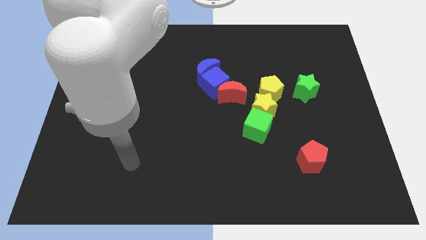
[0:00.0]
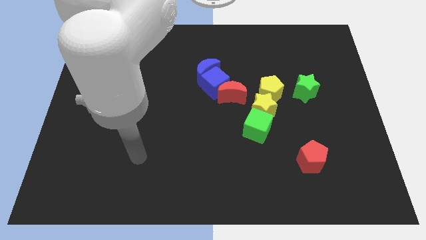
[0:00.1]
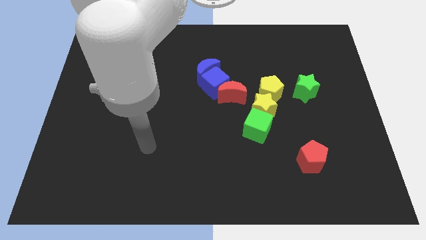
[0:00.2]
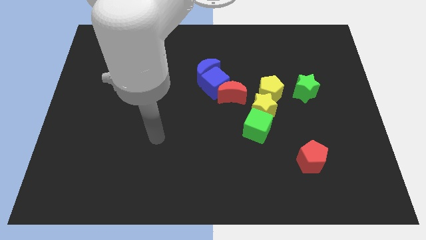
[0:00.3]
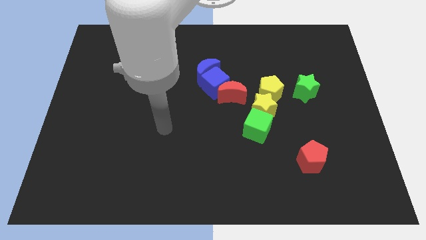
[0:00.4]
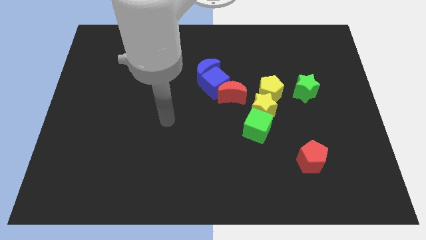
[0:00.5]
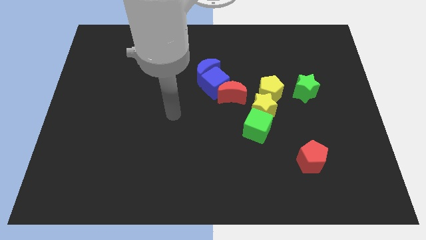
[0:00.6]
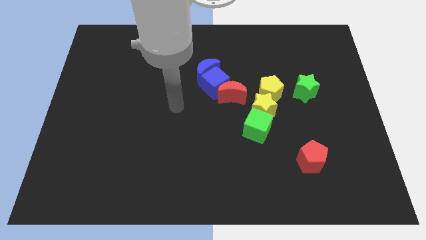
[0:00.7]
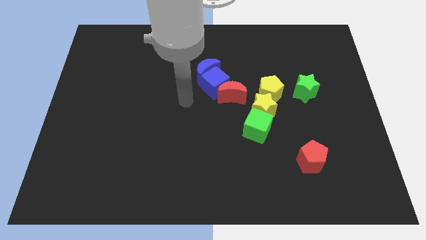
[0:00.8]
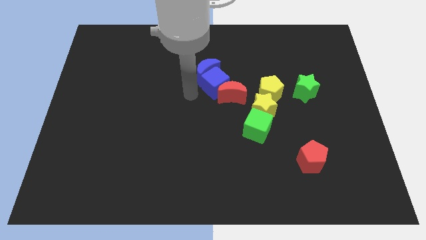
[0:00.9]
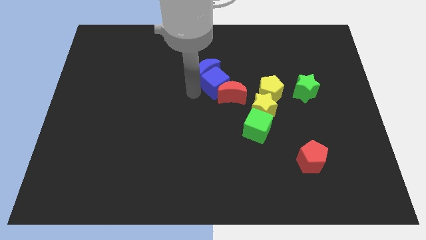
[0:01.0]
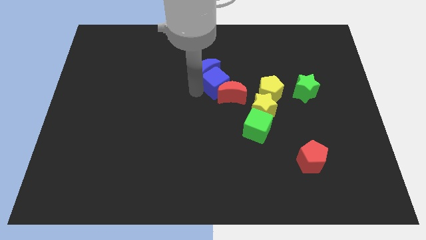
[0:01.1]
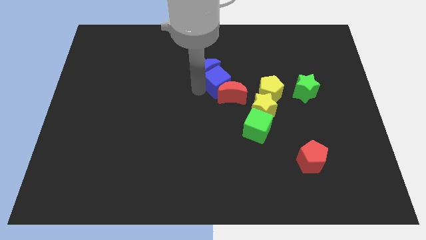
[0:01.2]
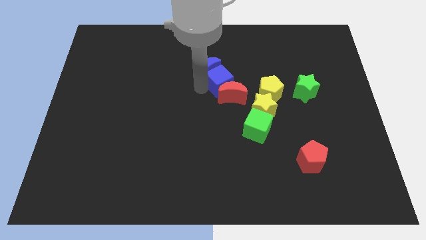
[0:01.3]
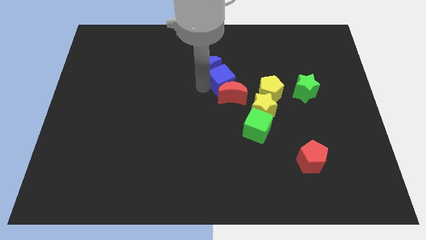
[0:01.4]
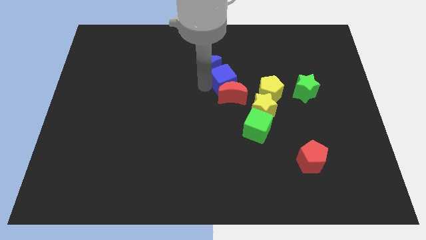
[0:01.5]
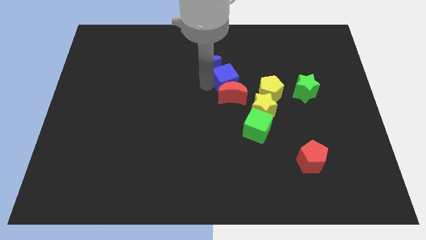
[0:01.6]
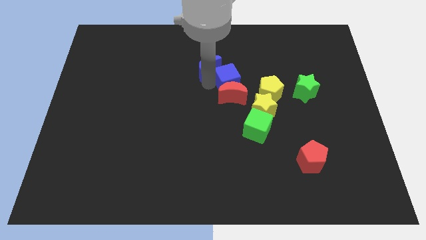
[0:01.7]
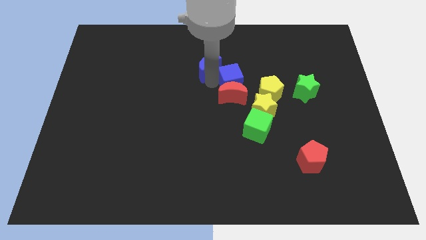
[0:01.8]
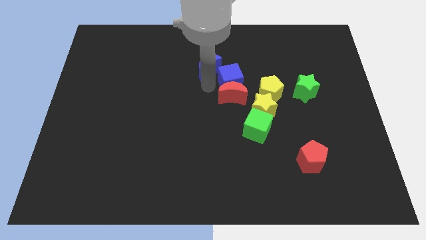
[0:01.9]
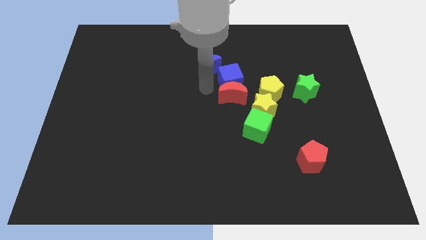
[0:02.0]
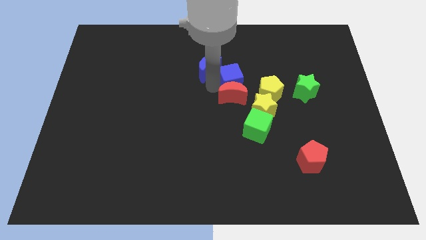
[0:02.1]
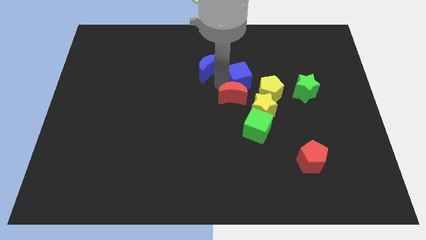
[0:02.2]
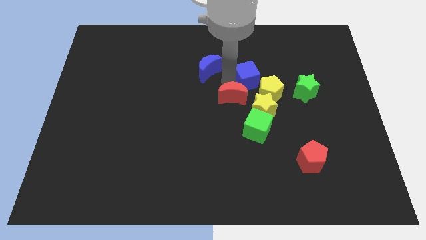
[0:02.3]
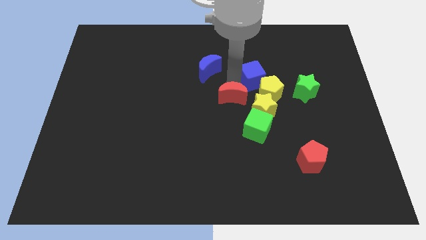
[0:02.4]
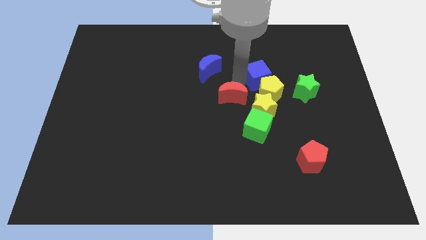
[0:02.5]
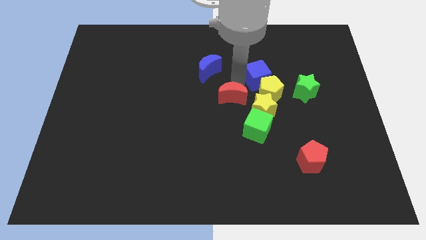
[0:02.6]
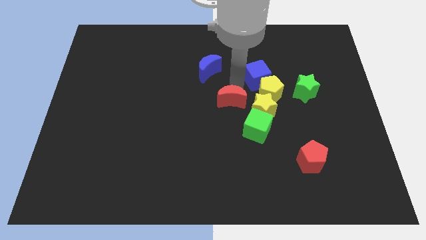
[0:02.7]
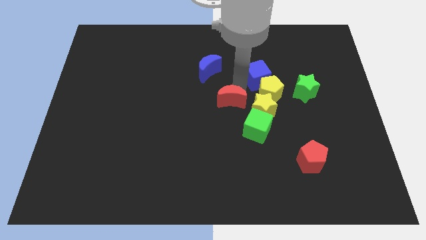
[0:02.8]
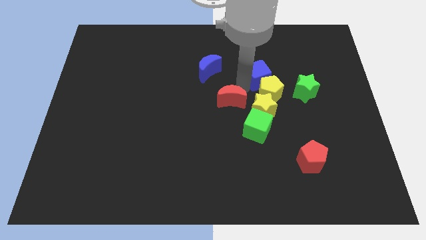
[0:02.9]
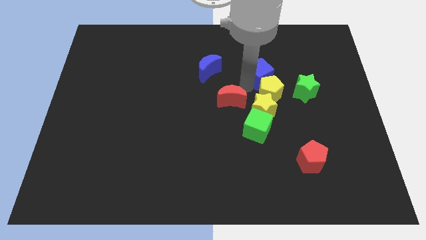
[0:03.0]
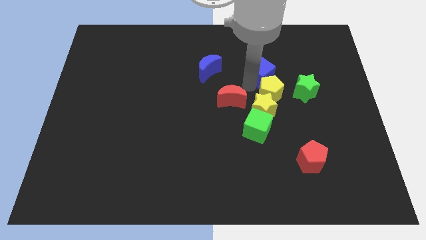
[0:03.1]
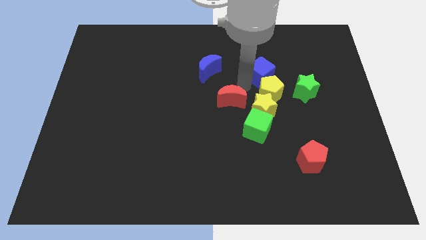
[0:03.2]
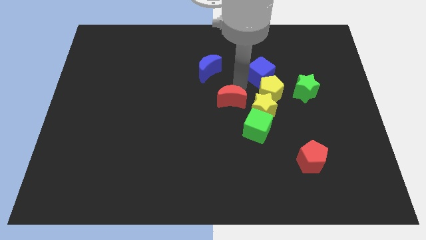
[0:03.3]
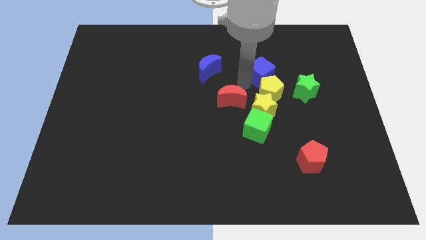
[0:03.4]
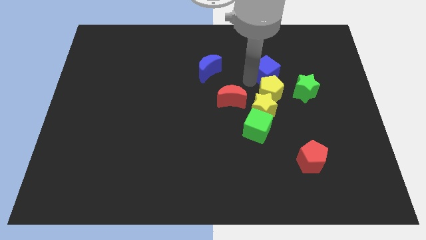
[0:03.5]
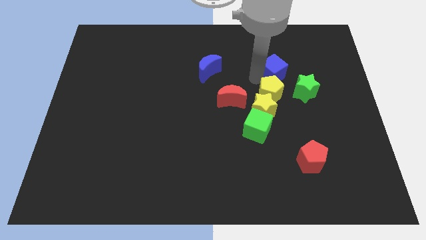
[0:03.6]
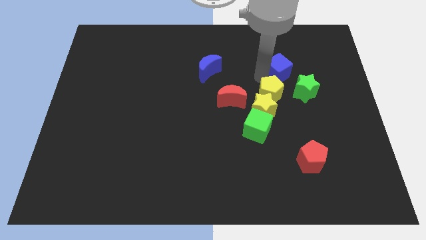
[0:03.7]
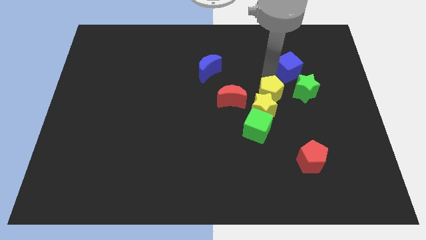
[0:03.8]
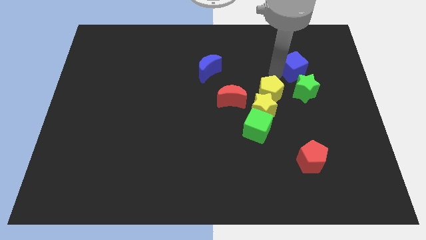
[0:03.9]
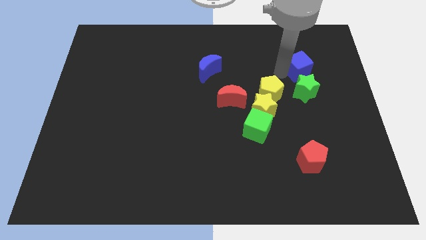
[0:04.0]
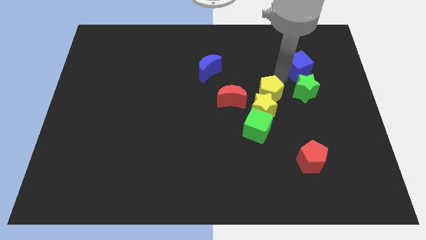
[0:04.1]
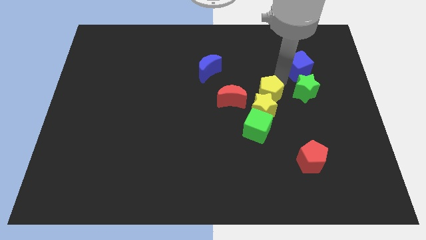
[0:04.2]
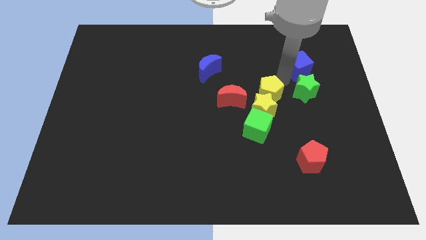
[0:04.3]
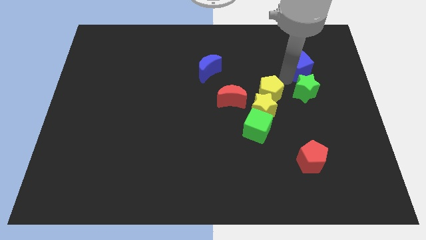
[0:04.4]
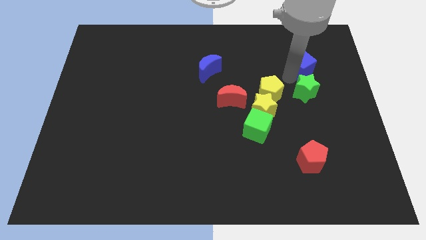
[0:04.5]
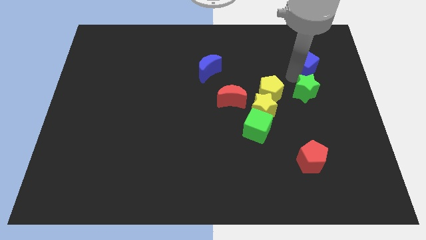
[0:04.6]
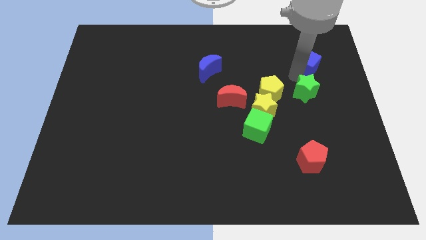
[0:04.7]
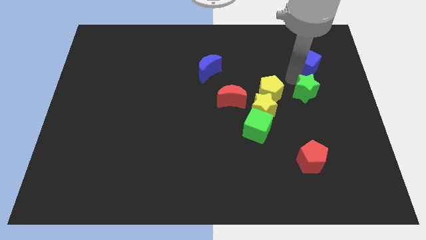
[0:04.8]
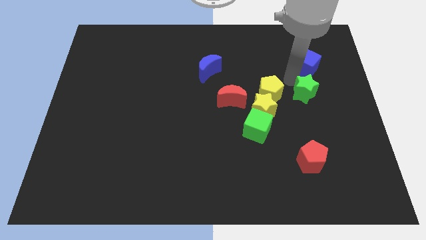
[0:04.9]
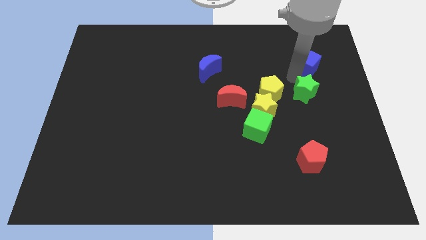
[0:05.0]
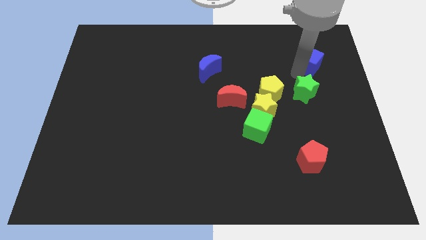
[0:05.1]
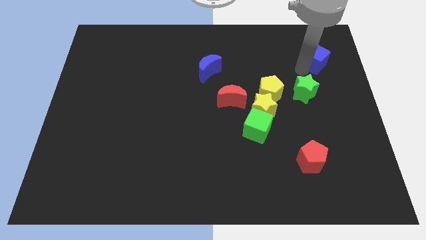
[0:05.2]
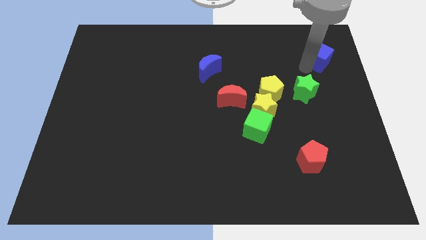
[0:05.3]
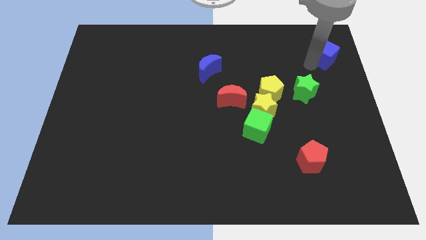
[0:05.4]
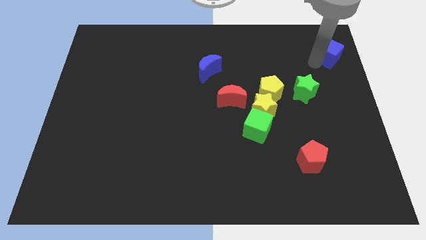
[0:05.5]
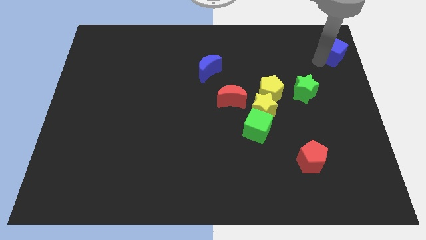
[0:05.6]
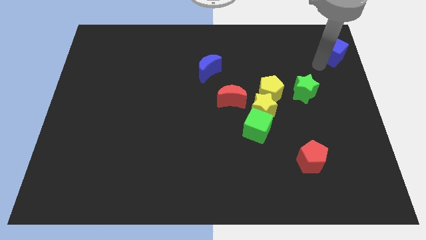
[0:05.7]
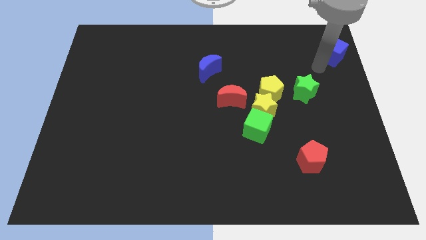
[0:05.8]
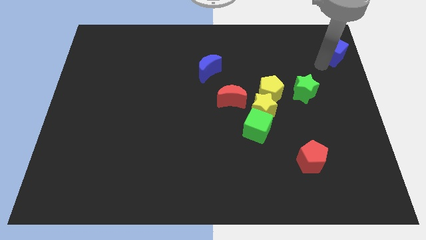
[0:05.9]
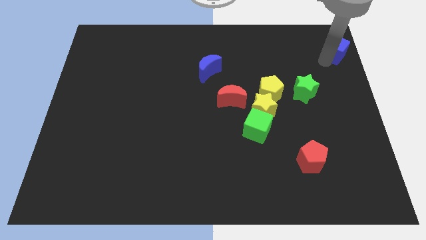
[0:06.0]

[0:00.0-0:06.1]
put the blue cube to the upper right corner

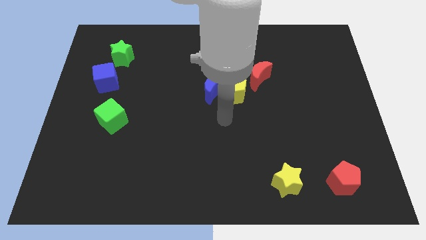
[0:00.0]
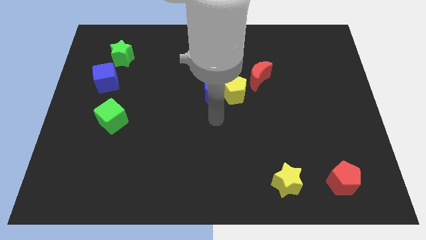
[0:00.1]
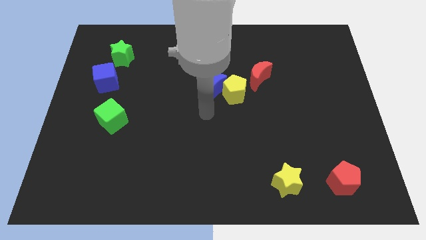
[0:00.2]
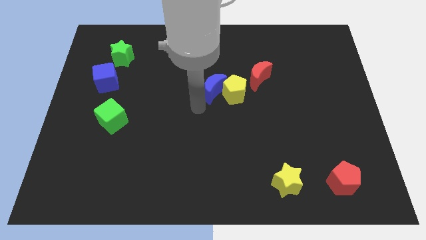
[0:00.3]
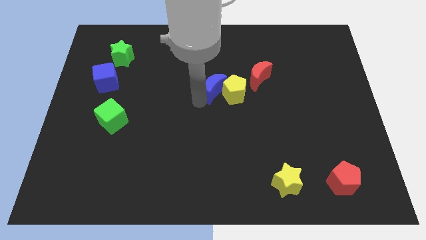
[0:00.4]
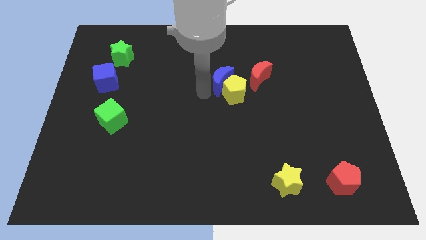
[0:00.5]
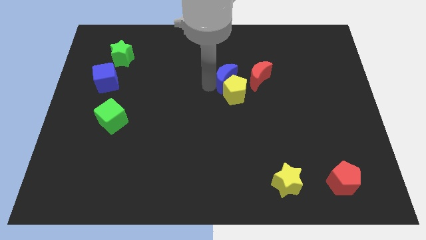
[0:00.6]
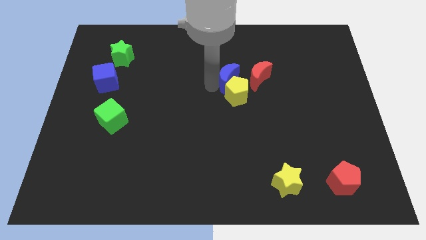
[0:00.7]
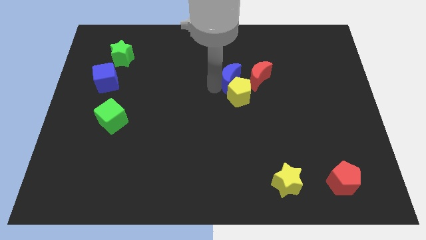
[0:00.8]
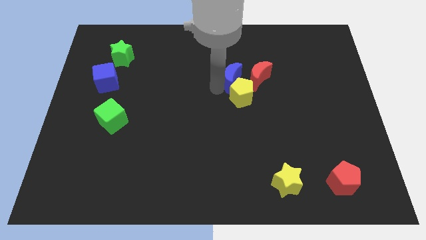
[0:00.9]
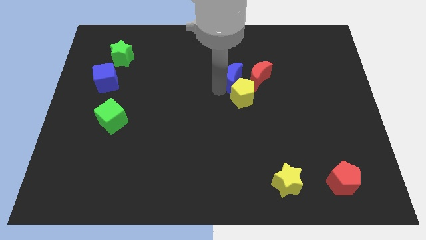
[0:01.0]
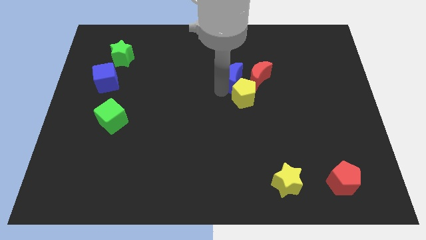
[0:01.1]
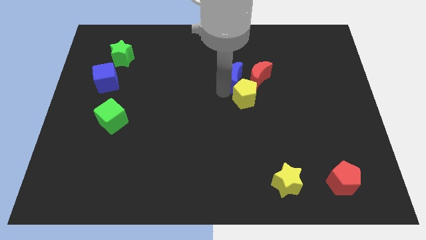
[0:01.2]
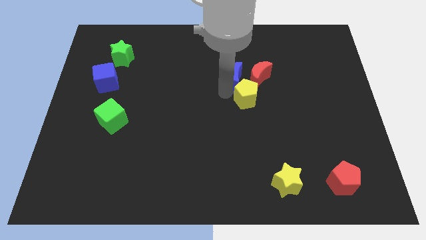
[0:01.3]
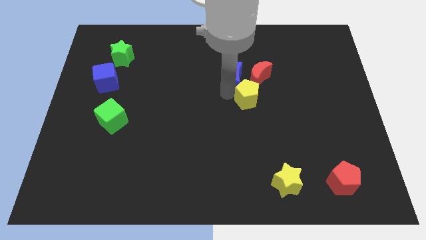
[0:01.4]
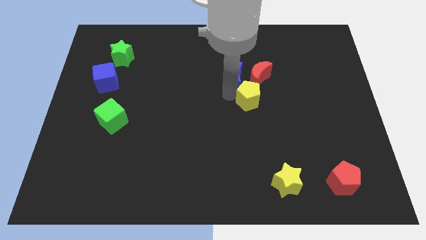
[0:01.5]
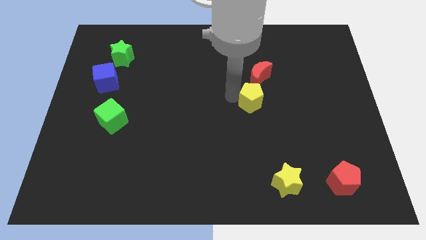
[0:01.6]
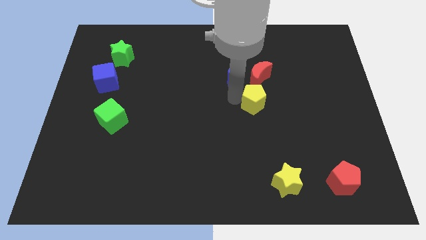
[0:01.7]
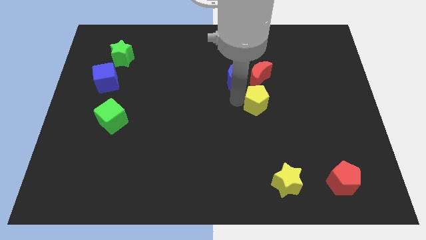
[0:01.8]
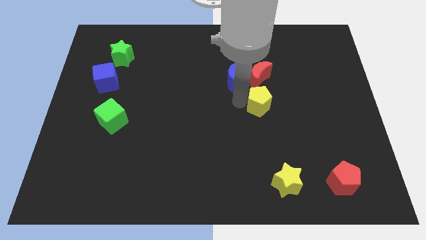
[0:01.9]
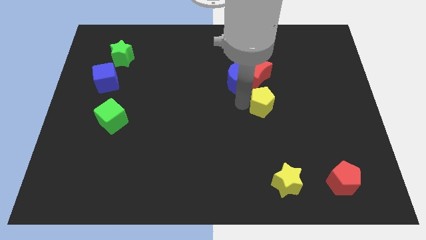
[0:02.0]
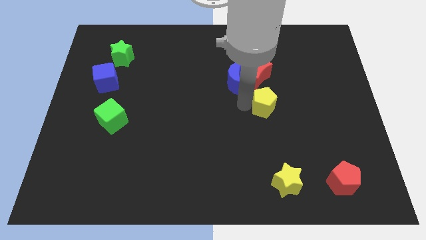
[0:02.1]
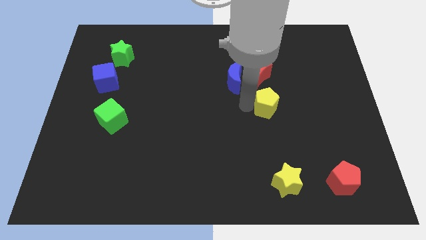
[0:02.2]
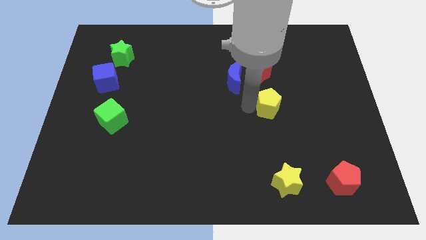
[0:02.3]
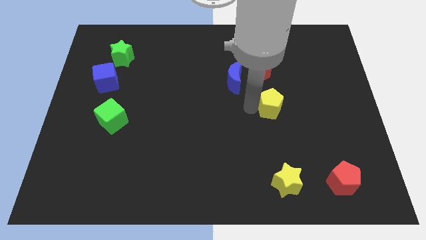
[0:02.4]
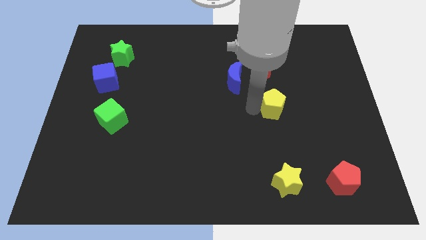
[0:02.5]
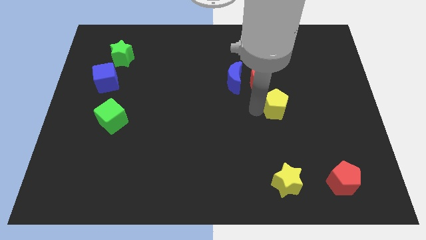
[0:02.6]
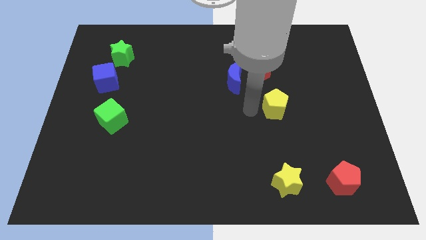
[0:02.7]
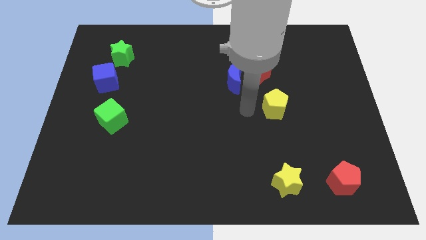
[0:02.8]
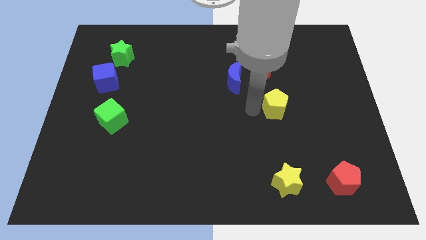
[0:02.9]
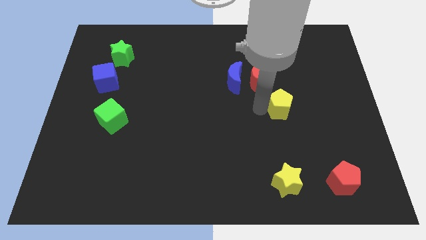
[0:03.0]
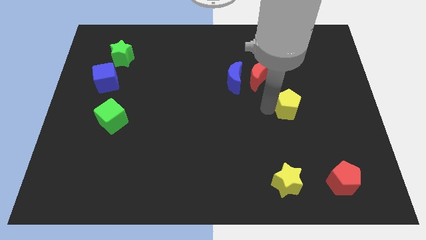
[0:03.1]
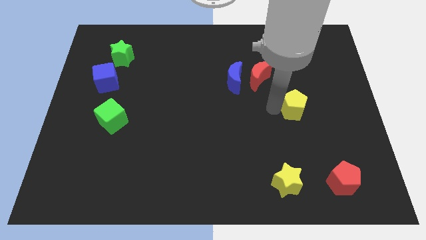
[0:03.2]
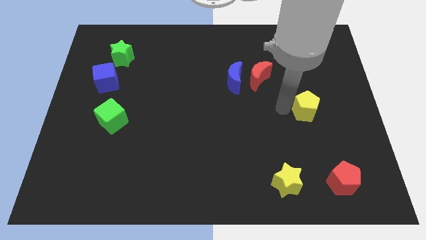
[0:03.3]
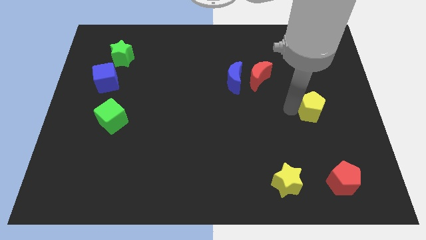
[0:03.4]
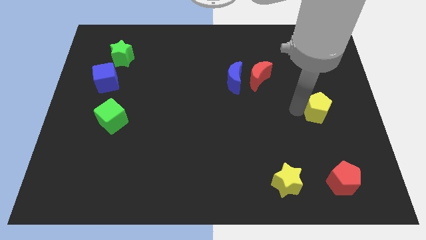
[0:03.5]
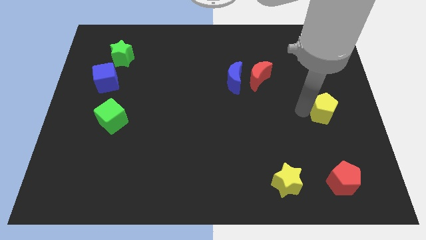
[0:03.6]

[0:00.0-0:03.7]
slide the yellow pentagon to the right side
